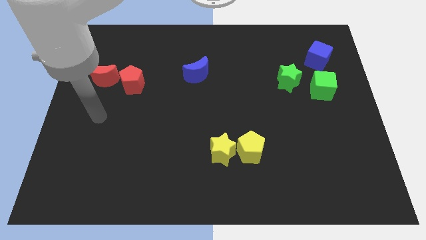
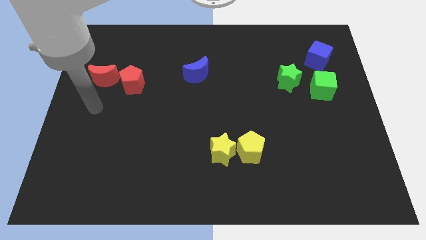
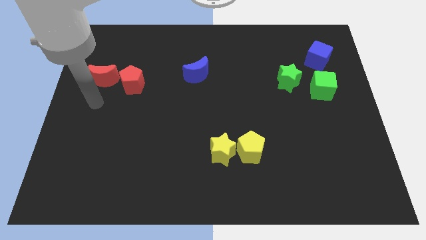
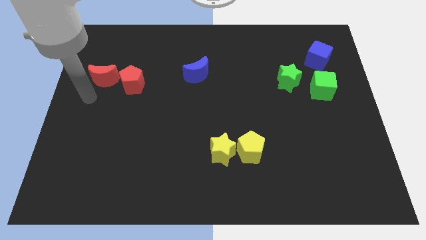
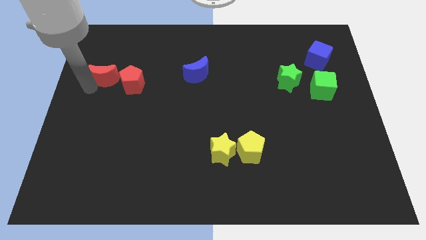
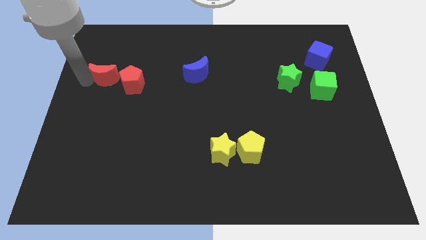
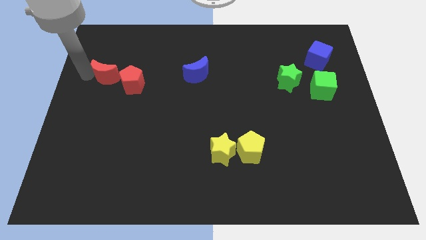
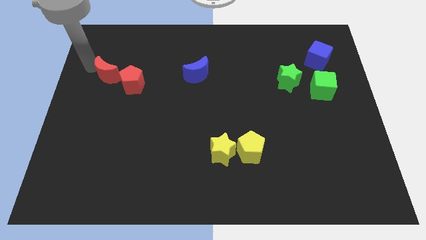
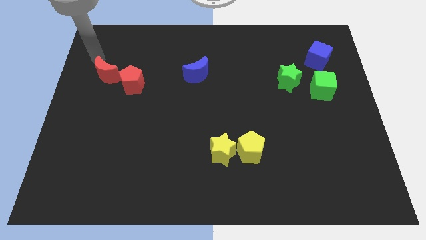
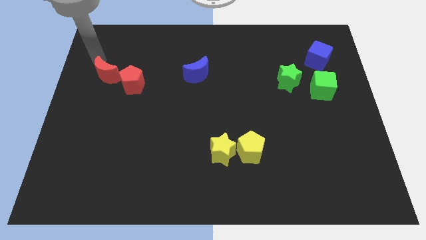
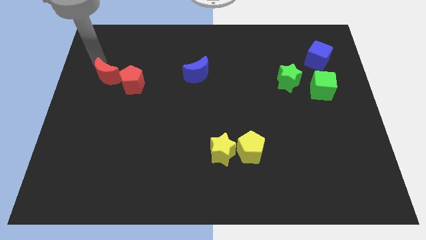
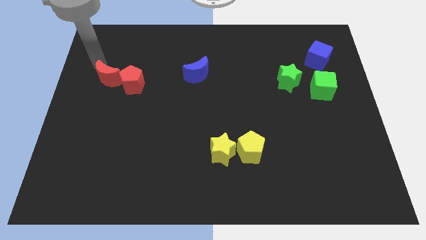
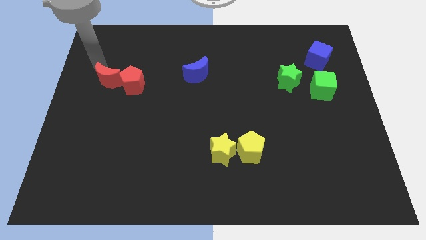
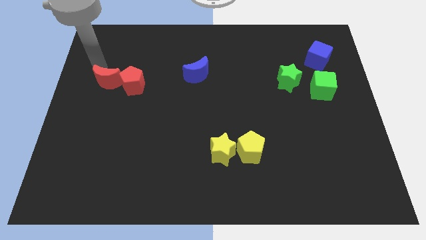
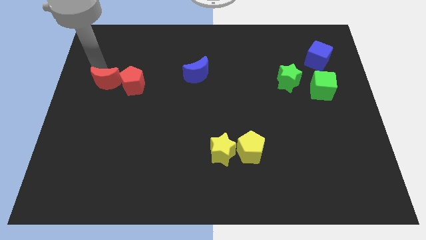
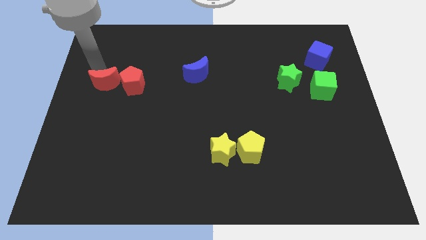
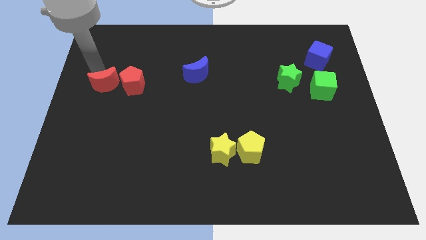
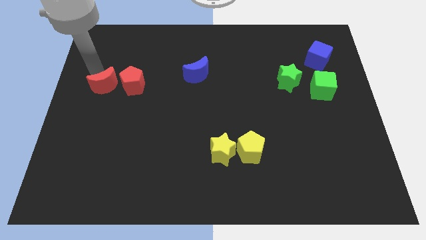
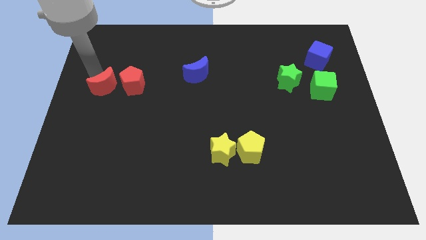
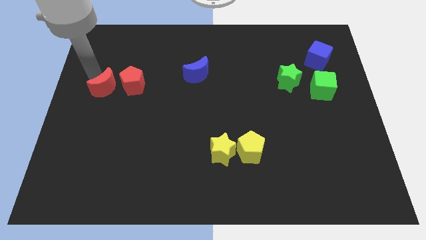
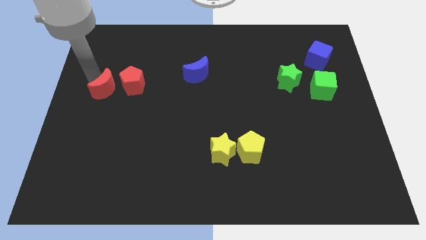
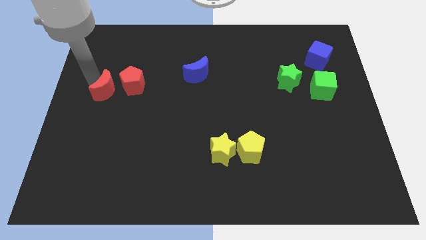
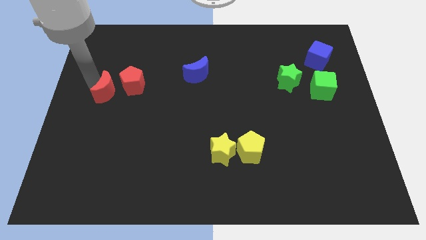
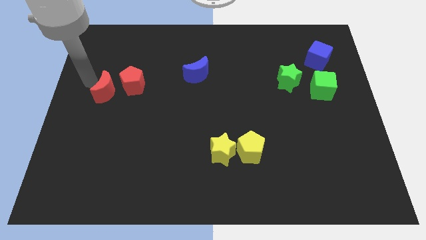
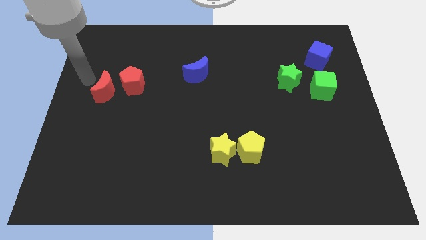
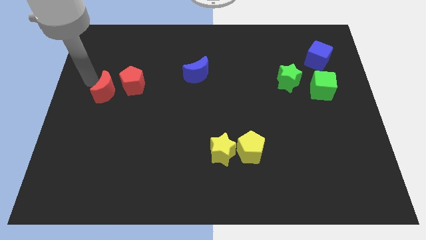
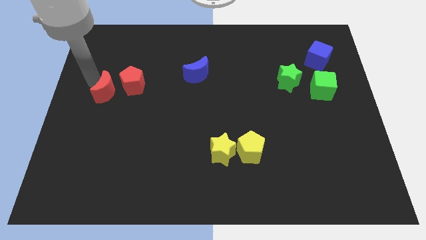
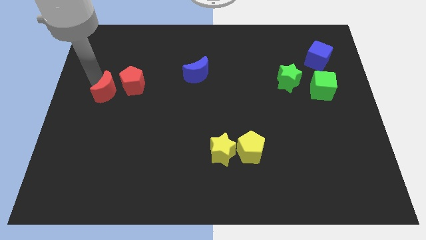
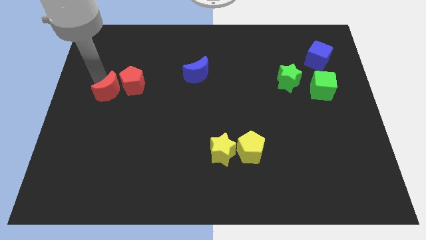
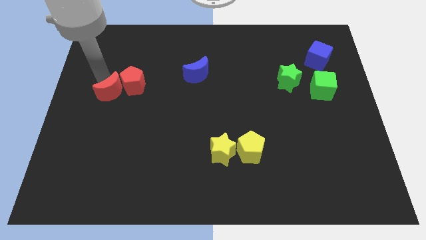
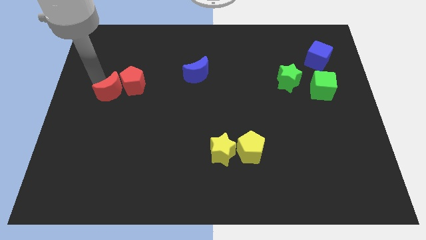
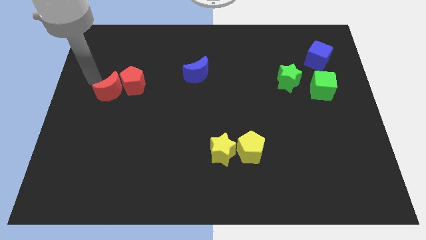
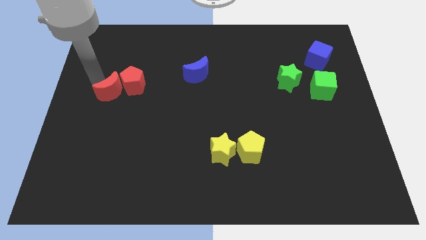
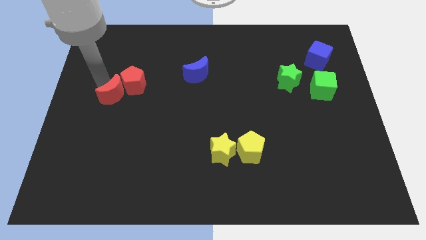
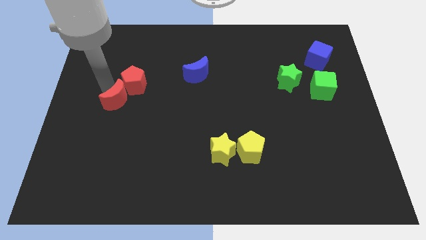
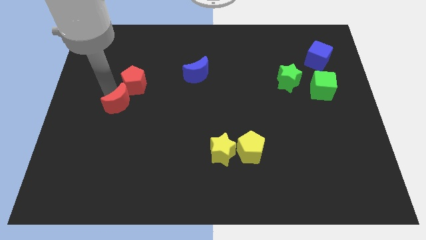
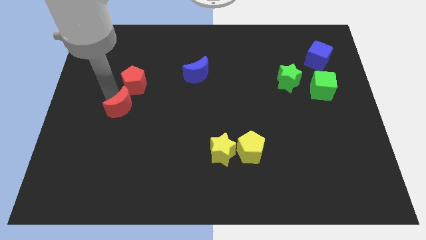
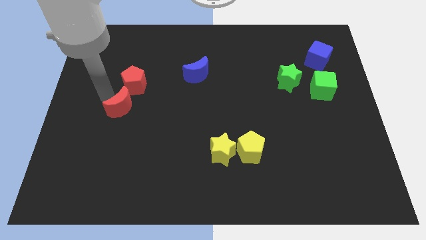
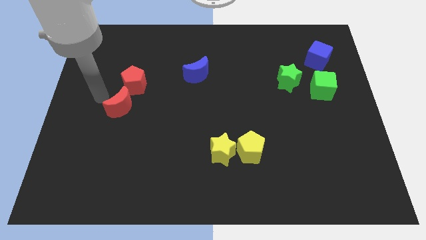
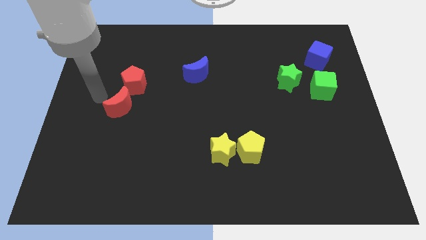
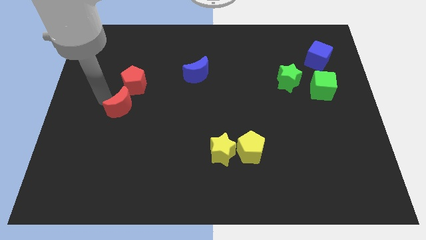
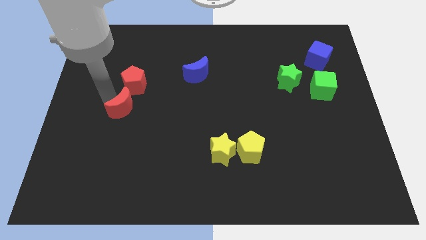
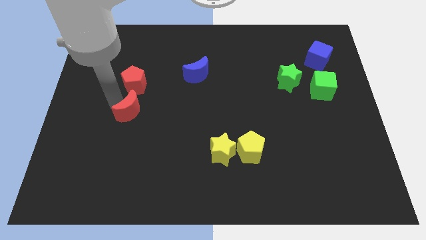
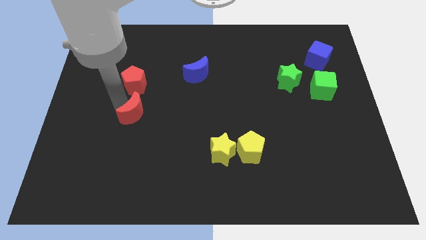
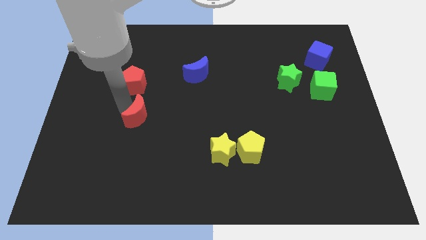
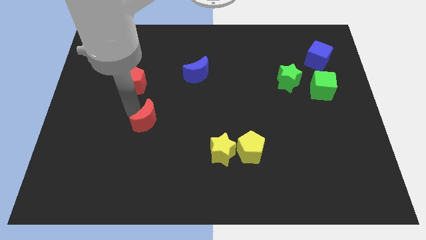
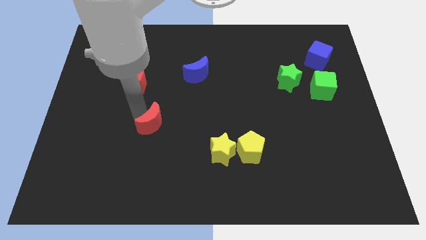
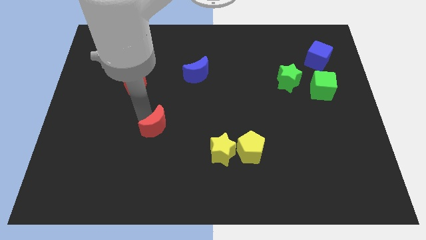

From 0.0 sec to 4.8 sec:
slide the red moon diagonally downwards and right

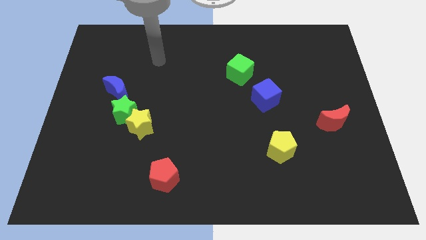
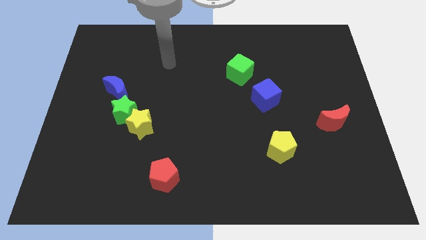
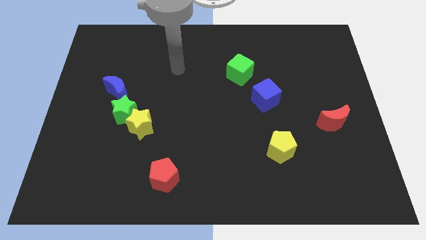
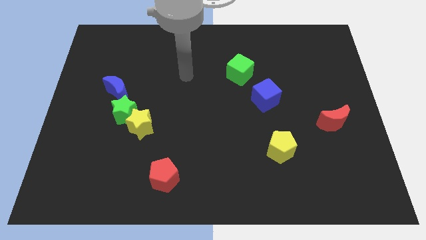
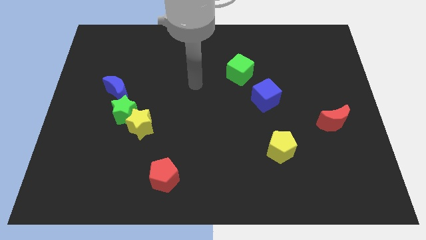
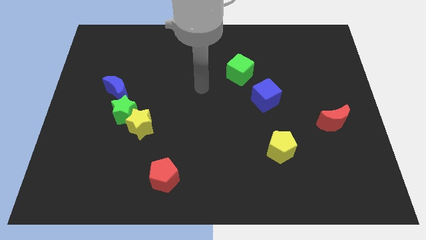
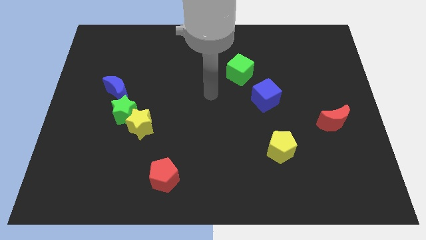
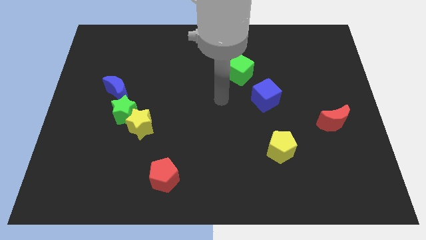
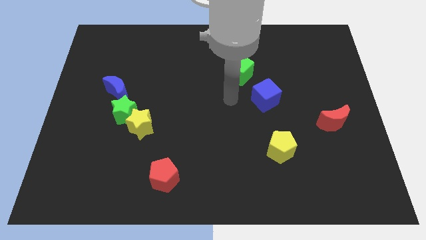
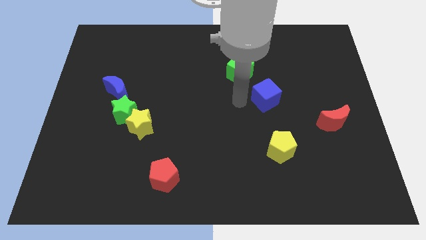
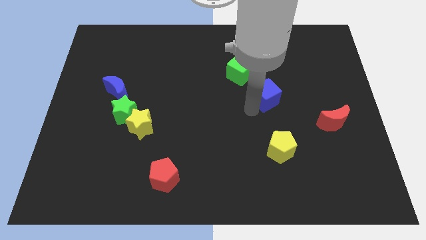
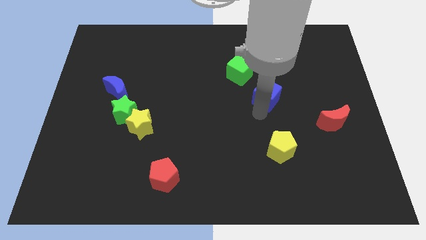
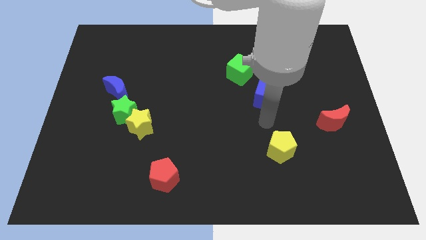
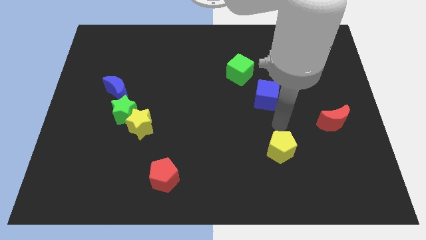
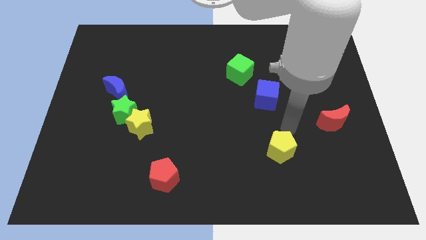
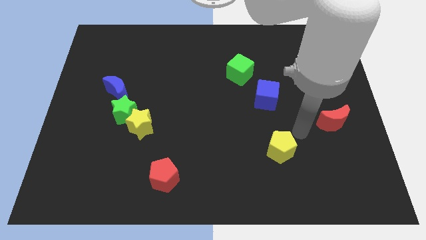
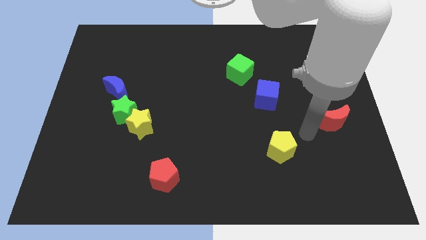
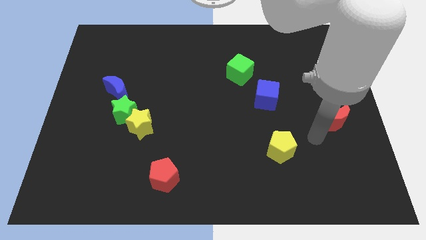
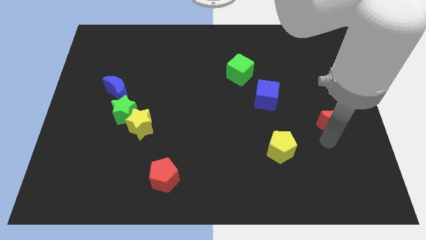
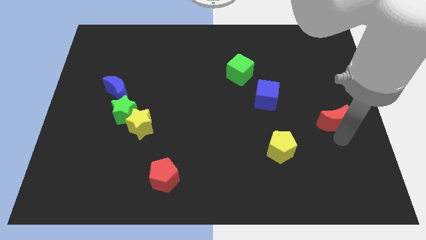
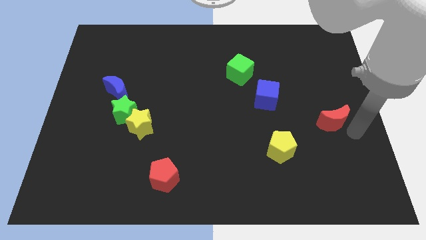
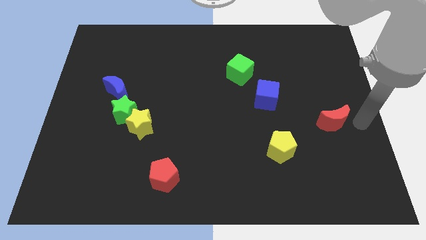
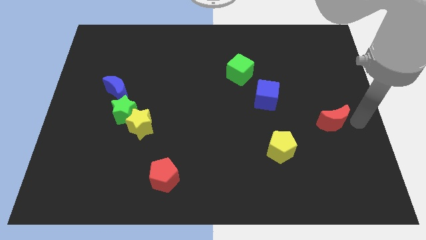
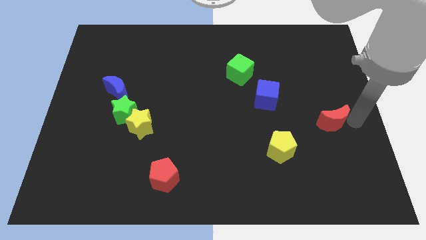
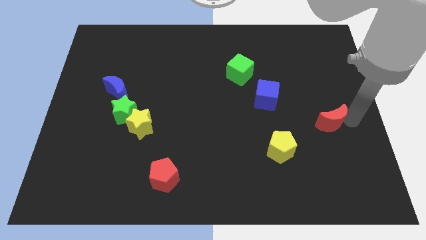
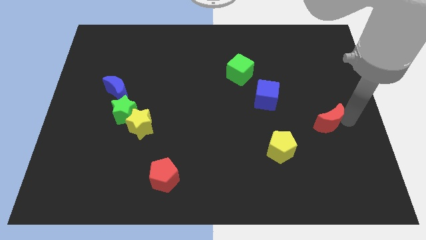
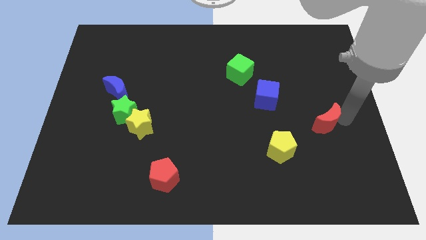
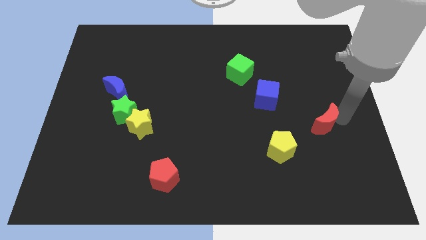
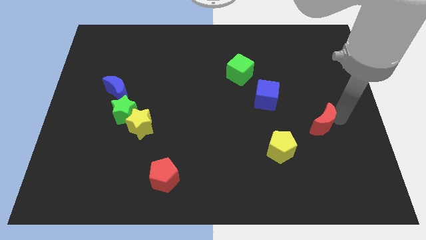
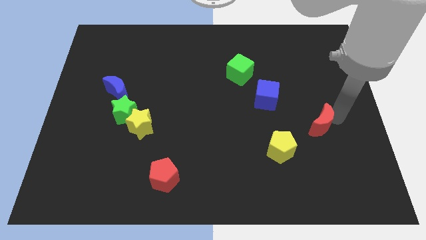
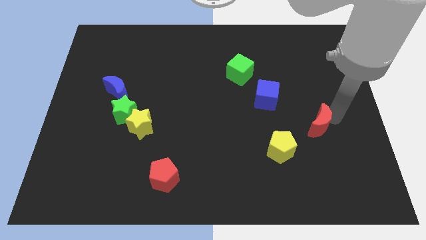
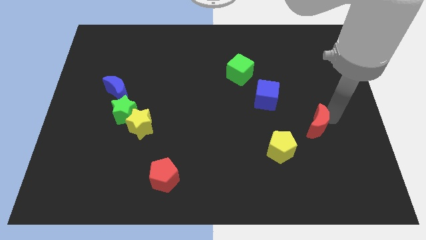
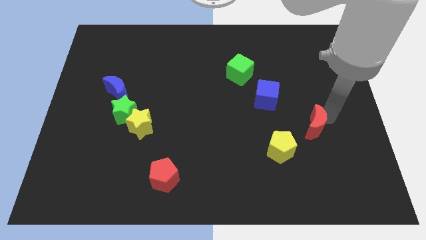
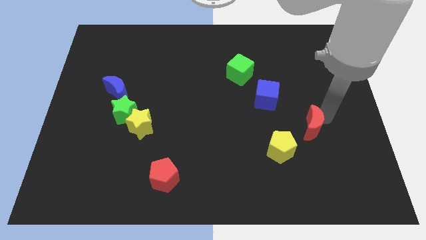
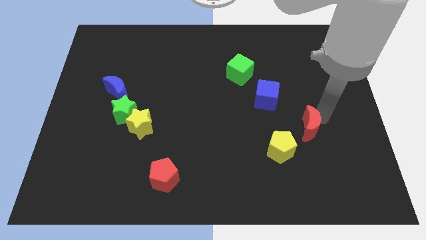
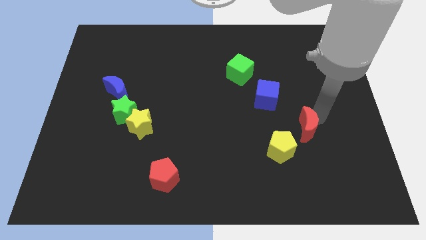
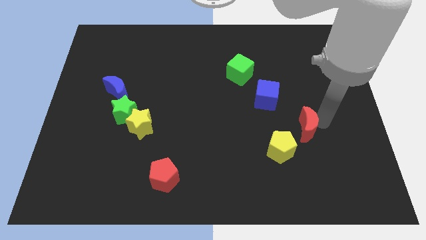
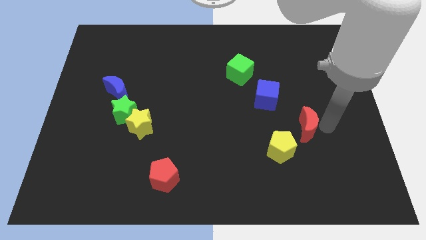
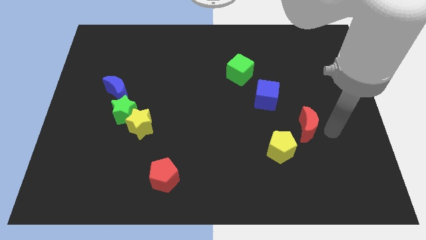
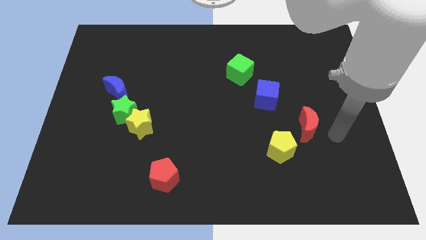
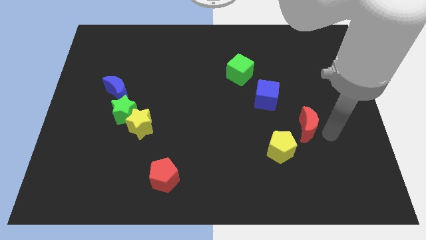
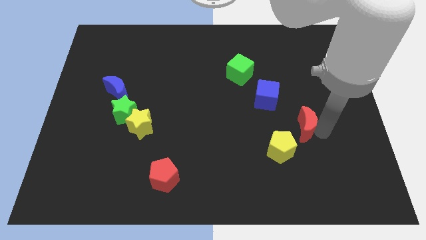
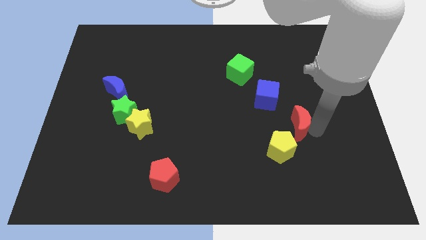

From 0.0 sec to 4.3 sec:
push the red moon left a bit
